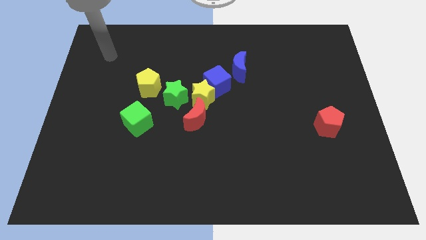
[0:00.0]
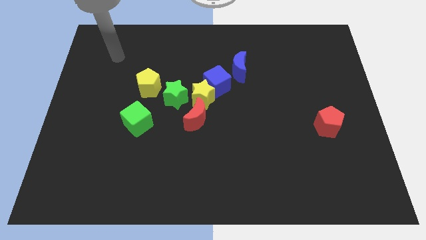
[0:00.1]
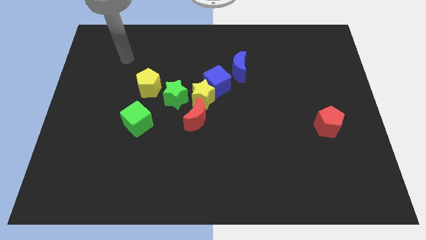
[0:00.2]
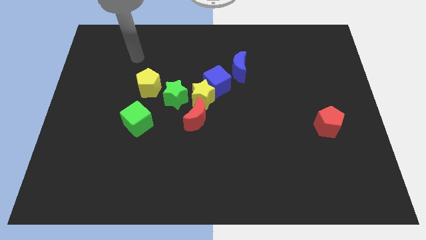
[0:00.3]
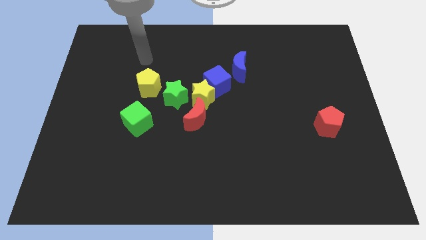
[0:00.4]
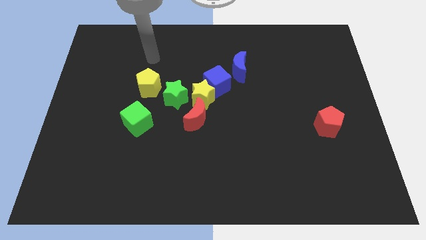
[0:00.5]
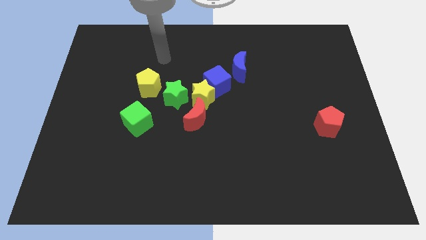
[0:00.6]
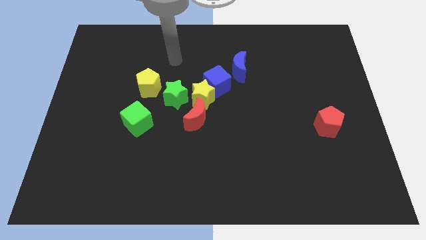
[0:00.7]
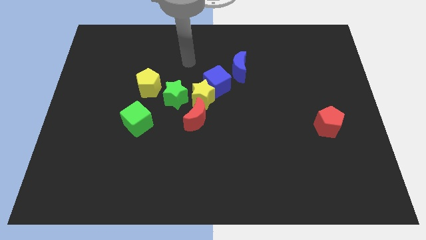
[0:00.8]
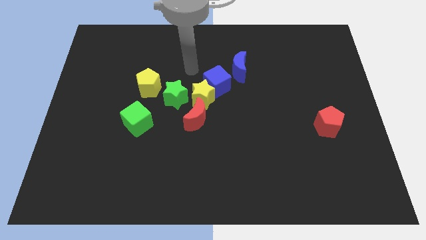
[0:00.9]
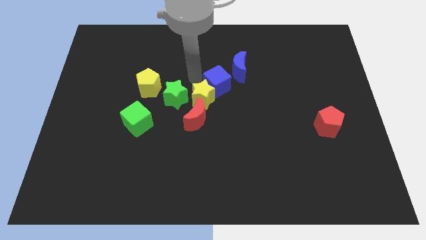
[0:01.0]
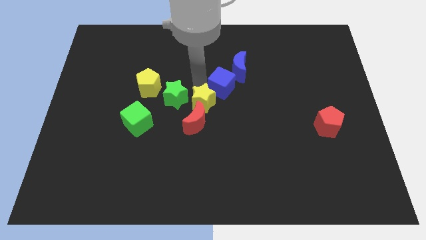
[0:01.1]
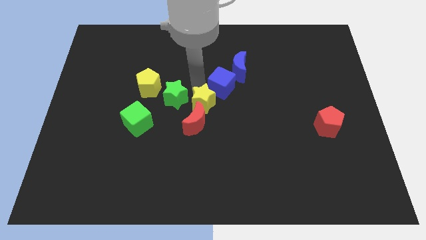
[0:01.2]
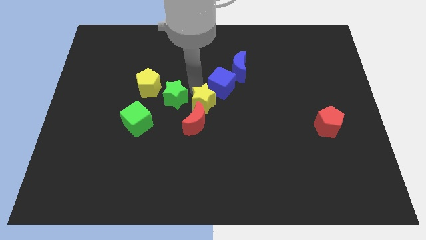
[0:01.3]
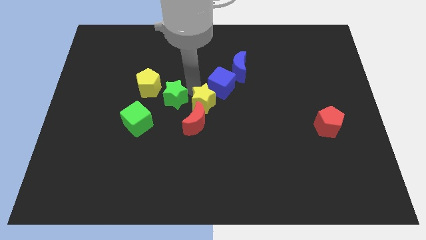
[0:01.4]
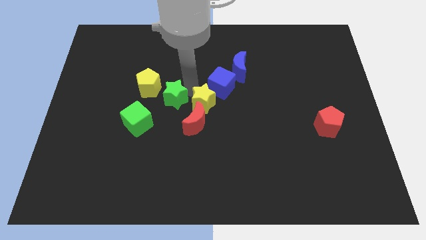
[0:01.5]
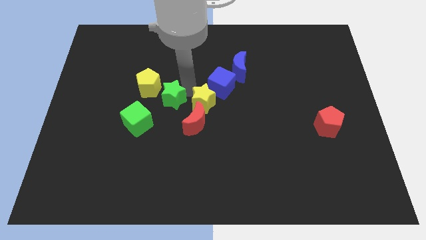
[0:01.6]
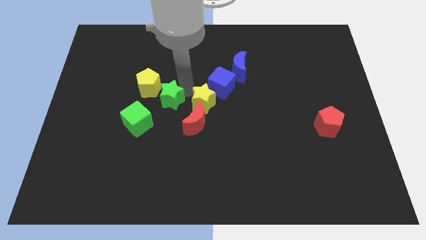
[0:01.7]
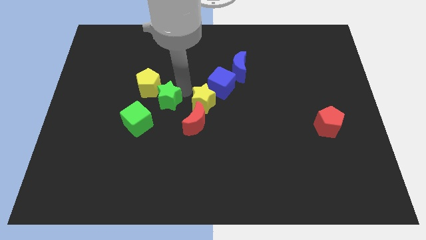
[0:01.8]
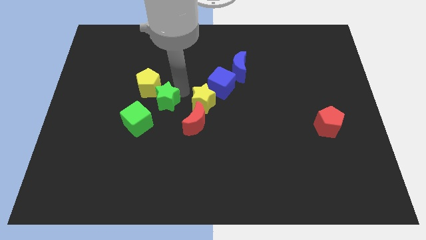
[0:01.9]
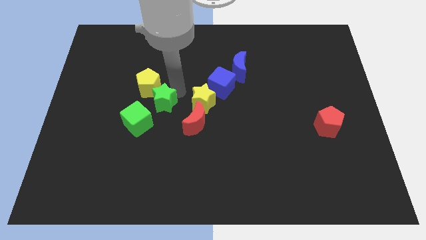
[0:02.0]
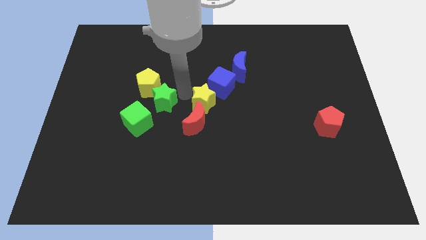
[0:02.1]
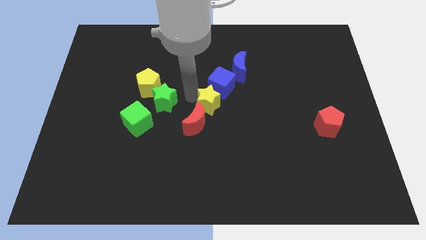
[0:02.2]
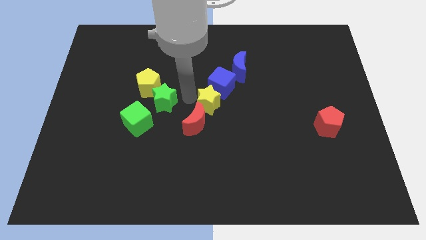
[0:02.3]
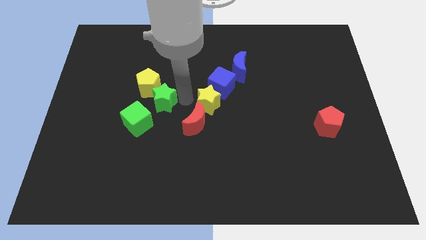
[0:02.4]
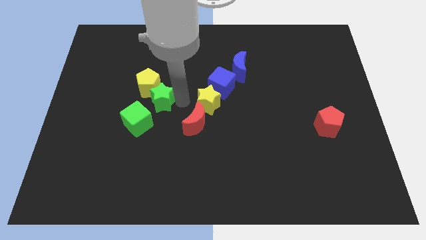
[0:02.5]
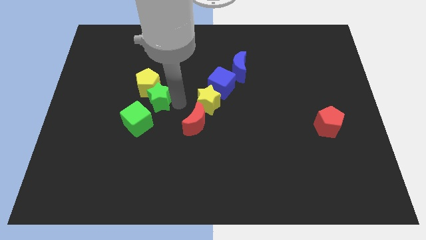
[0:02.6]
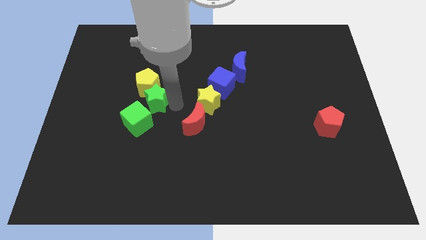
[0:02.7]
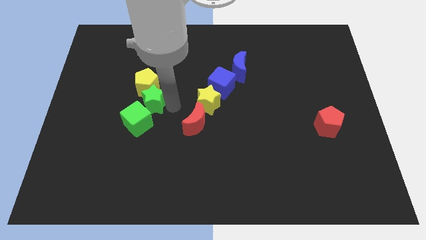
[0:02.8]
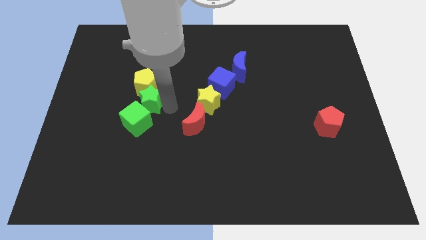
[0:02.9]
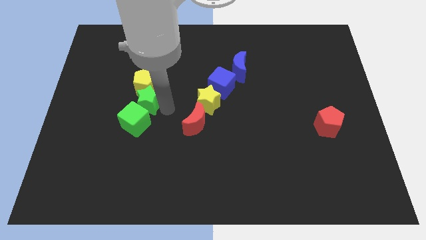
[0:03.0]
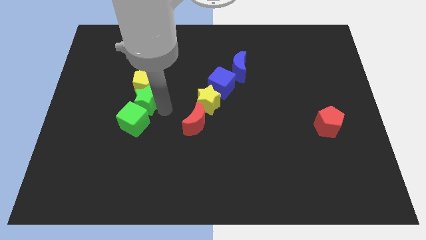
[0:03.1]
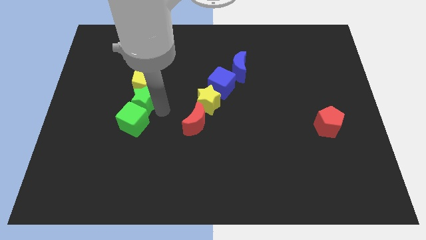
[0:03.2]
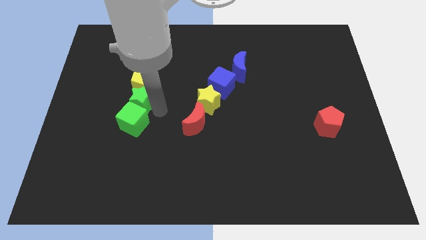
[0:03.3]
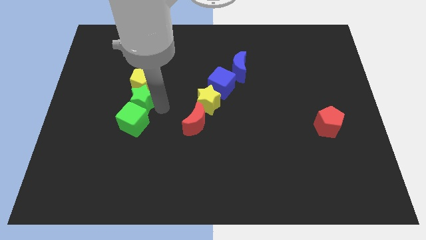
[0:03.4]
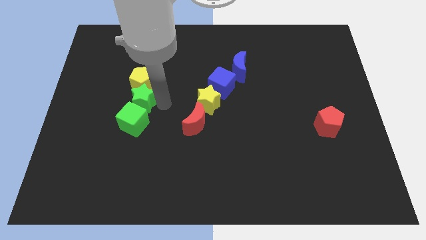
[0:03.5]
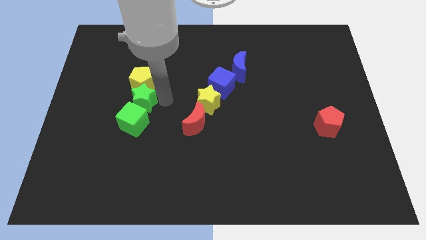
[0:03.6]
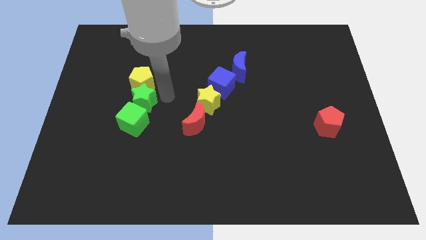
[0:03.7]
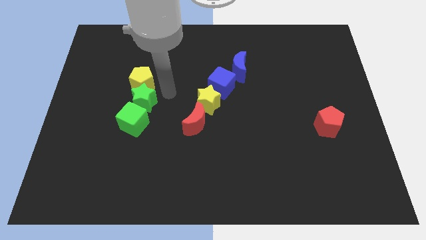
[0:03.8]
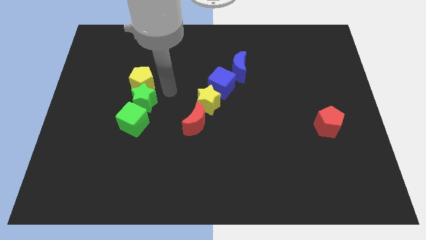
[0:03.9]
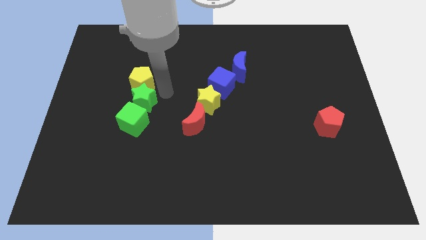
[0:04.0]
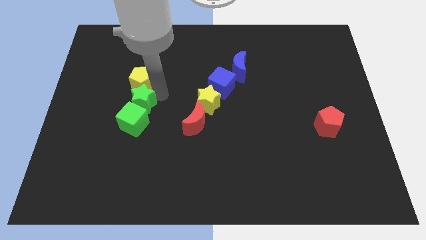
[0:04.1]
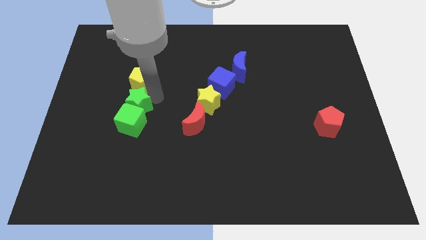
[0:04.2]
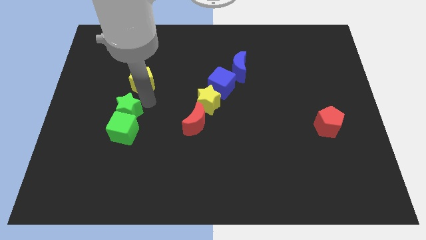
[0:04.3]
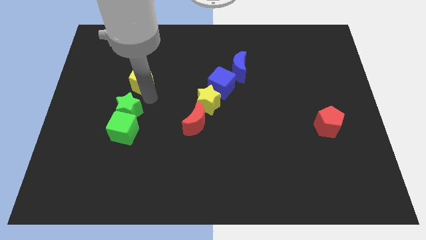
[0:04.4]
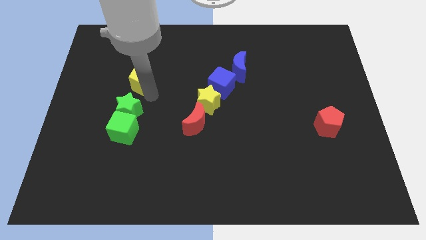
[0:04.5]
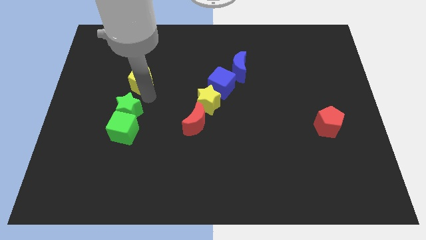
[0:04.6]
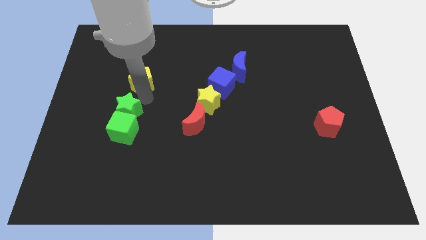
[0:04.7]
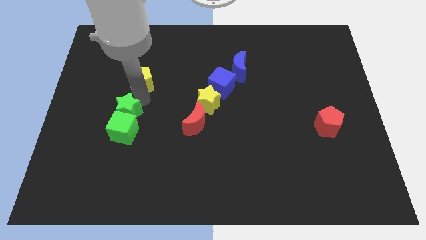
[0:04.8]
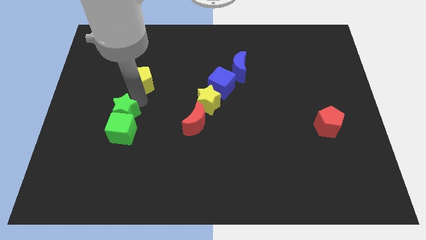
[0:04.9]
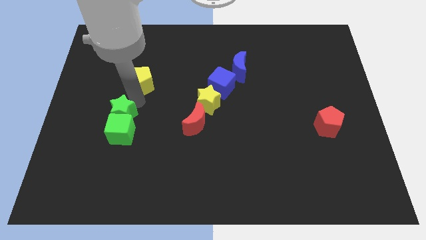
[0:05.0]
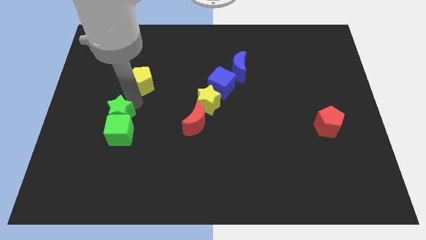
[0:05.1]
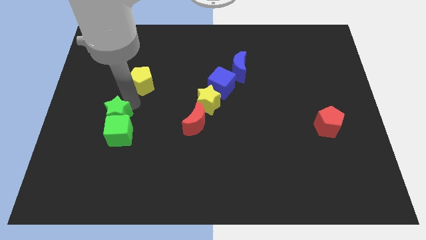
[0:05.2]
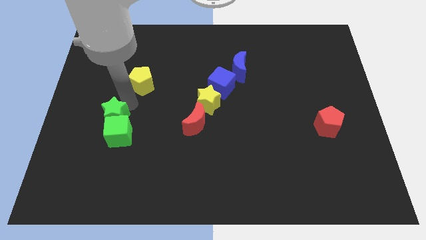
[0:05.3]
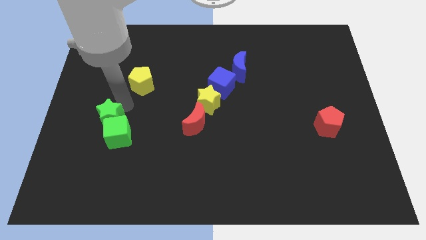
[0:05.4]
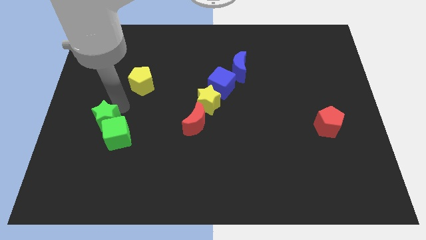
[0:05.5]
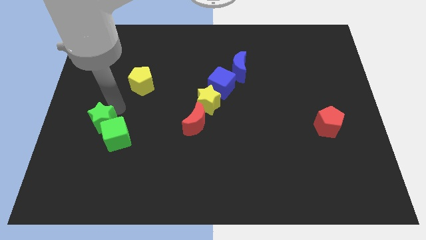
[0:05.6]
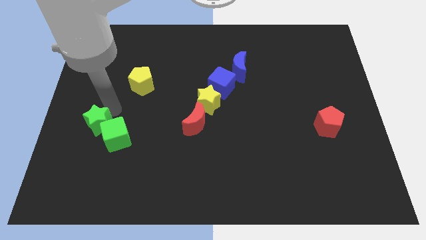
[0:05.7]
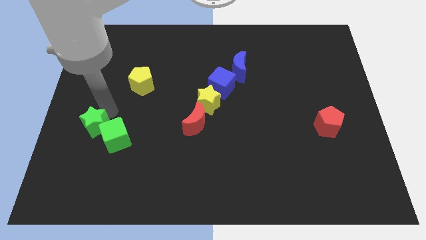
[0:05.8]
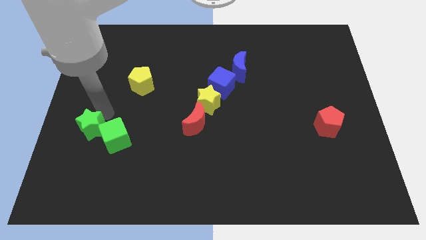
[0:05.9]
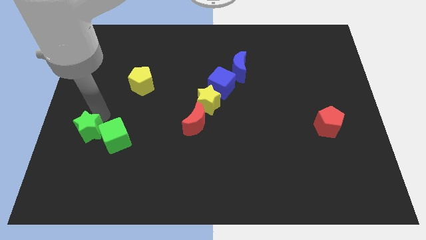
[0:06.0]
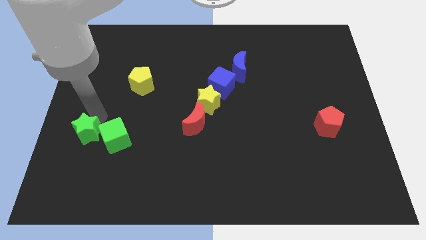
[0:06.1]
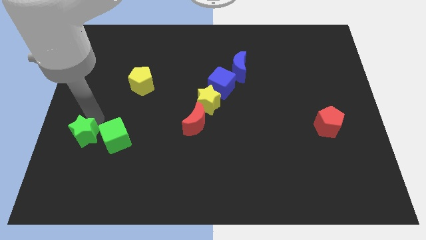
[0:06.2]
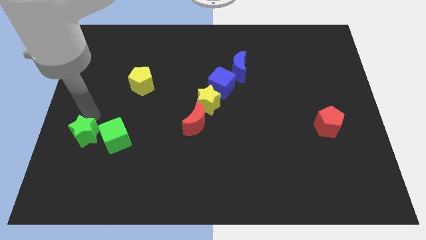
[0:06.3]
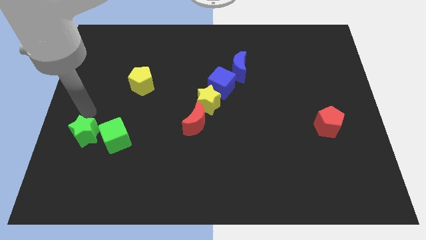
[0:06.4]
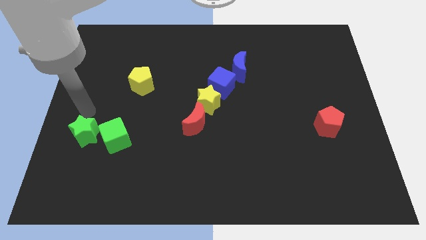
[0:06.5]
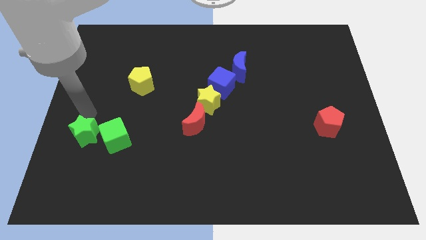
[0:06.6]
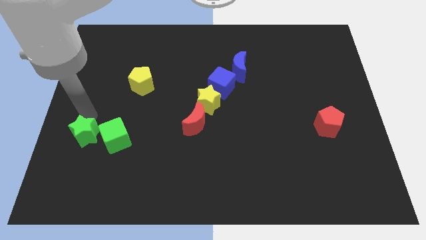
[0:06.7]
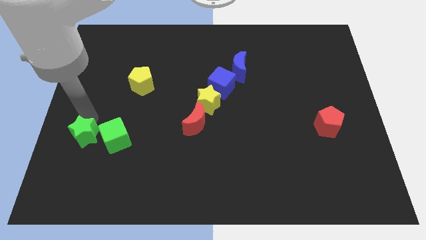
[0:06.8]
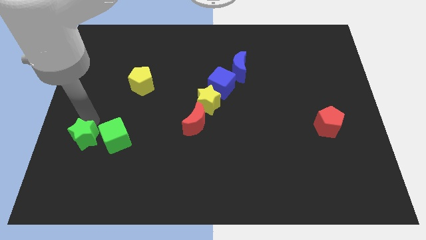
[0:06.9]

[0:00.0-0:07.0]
slide the green star to the bottom left side of the green cube

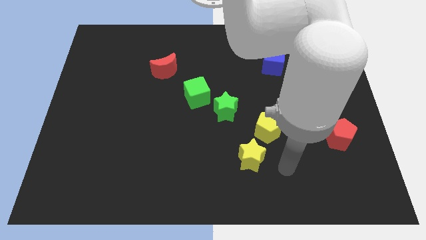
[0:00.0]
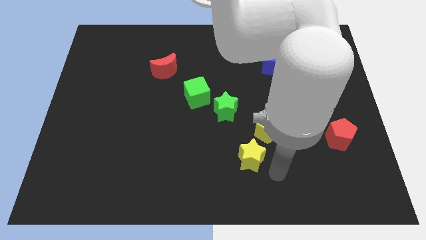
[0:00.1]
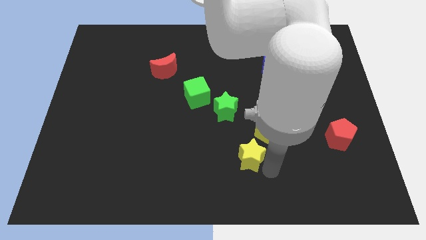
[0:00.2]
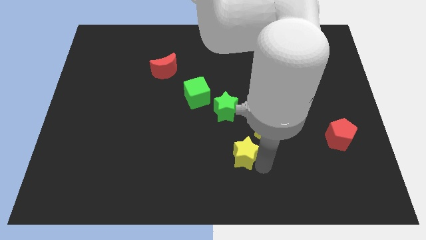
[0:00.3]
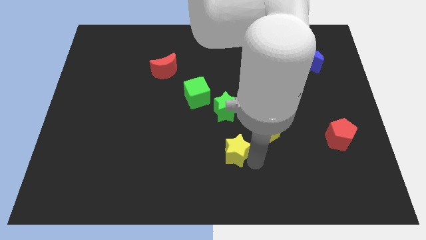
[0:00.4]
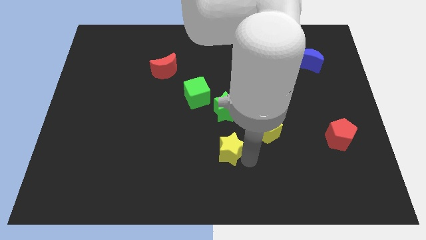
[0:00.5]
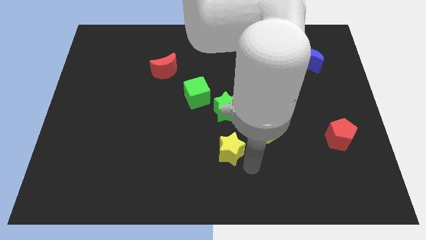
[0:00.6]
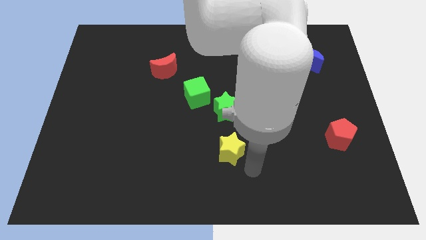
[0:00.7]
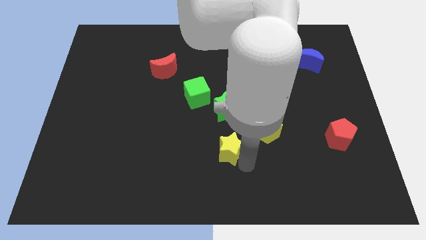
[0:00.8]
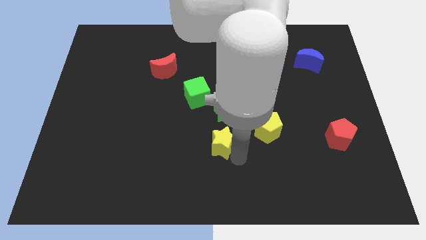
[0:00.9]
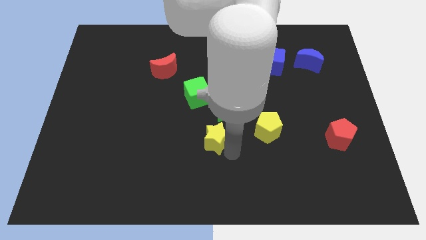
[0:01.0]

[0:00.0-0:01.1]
put the yellow star diagonally down and to the left of the green star
